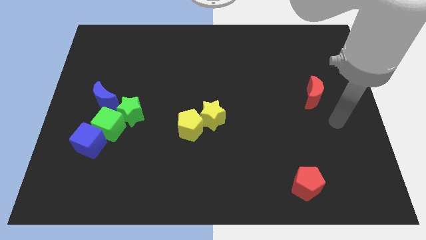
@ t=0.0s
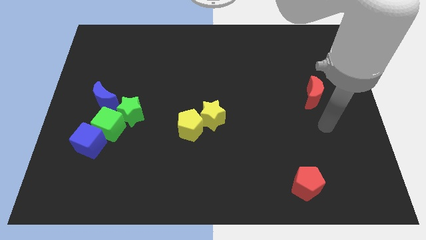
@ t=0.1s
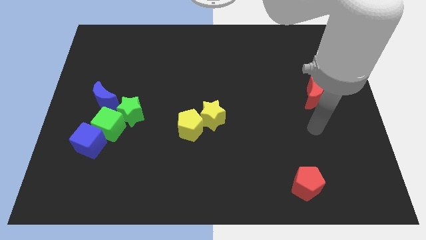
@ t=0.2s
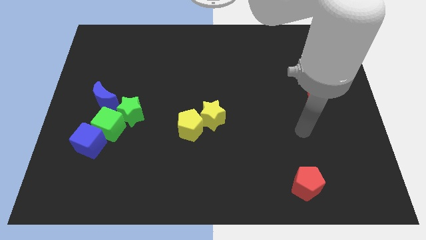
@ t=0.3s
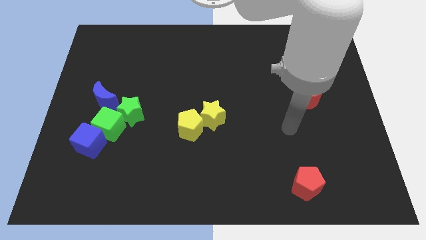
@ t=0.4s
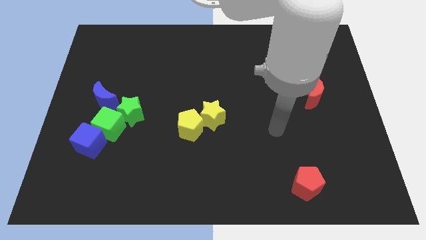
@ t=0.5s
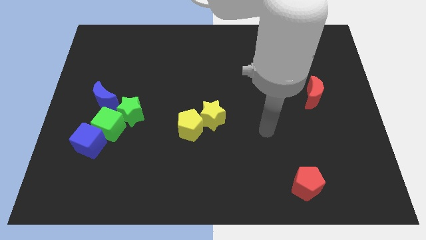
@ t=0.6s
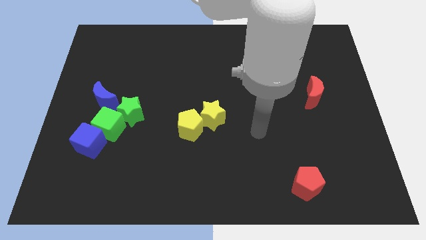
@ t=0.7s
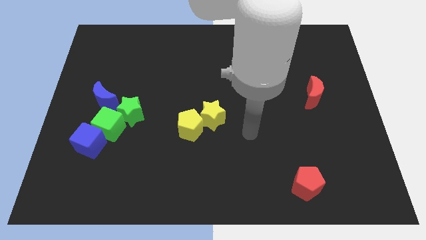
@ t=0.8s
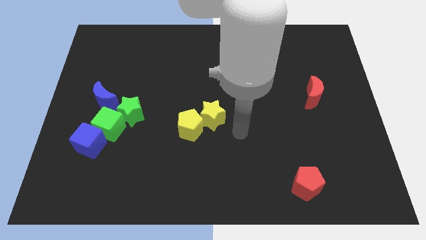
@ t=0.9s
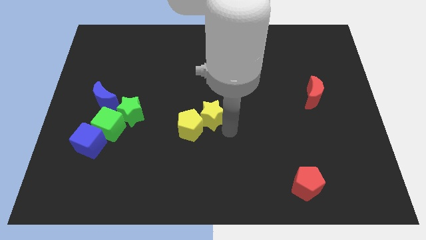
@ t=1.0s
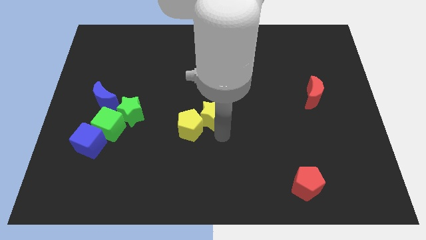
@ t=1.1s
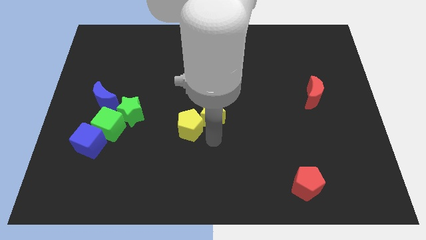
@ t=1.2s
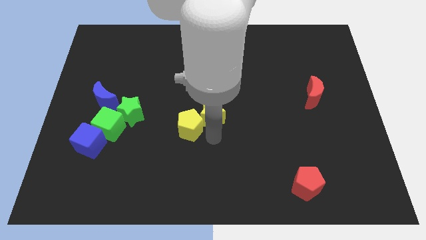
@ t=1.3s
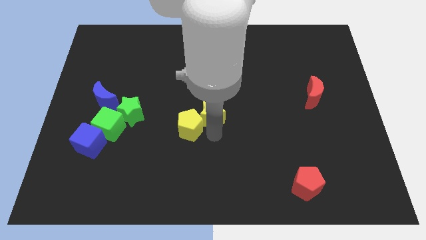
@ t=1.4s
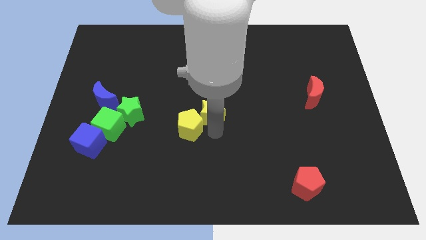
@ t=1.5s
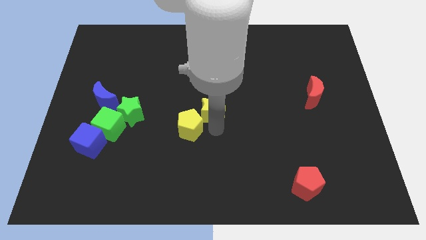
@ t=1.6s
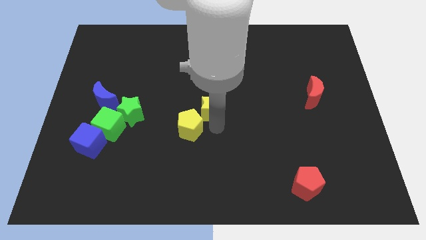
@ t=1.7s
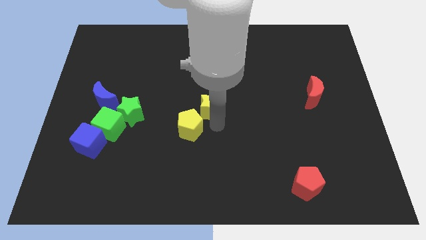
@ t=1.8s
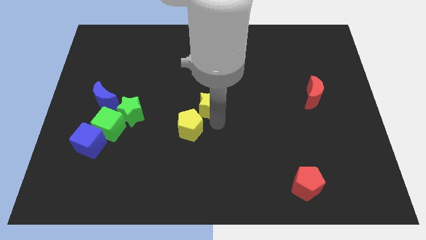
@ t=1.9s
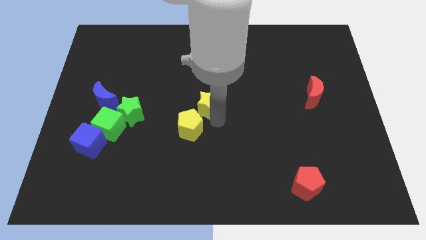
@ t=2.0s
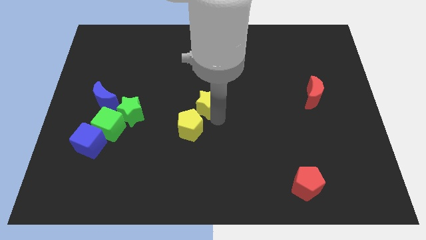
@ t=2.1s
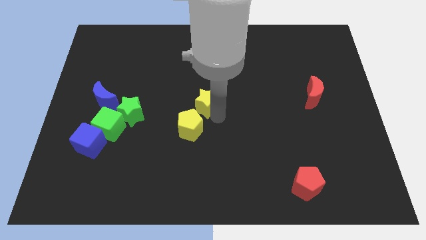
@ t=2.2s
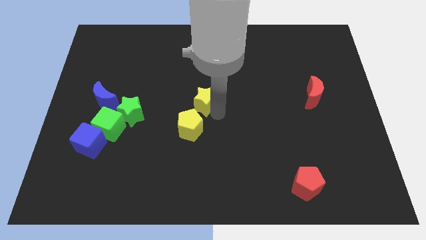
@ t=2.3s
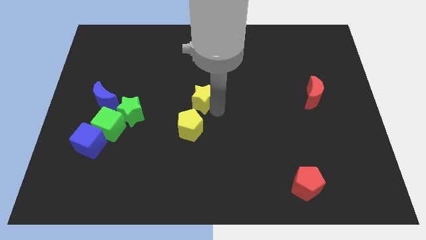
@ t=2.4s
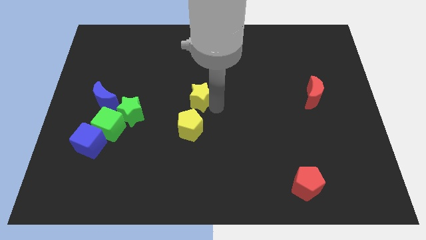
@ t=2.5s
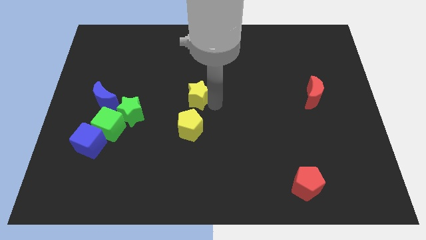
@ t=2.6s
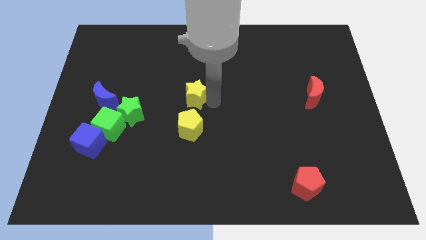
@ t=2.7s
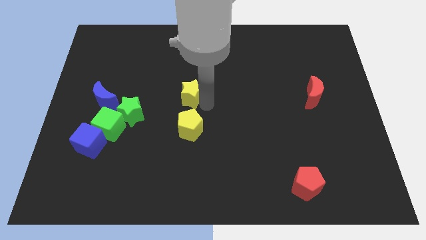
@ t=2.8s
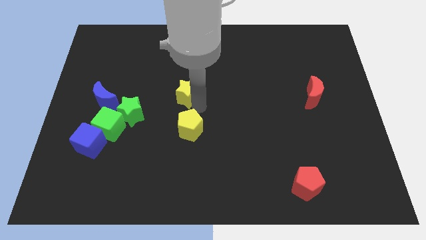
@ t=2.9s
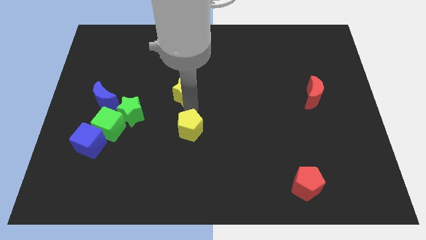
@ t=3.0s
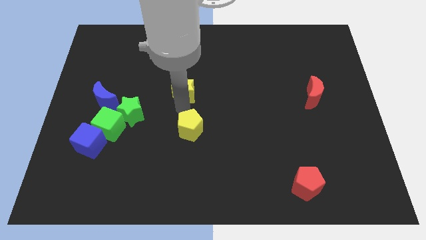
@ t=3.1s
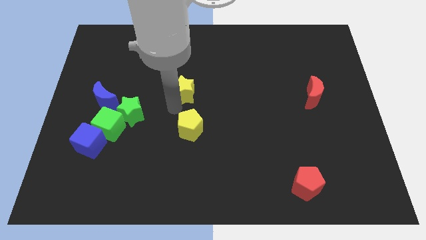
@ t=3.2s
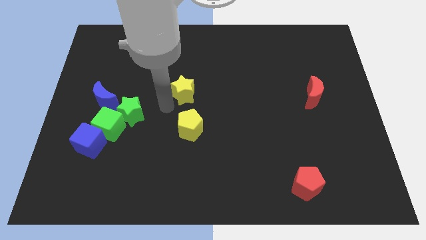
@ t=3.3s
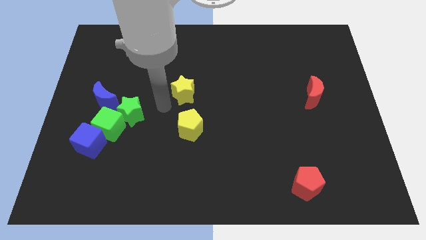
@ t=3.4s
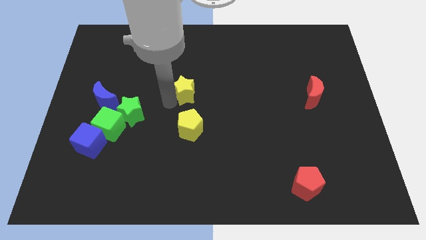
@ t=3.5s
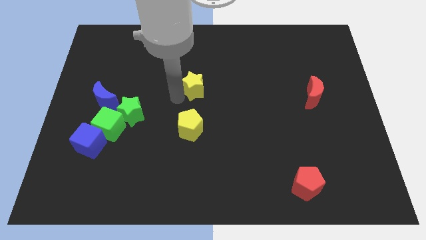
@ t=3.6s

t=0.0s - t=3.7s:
push the yellow star a little upwards

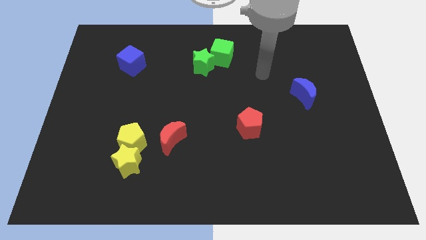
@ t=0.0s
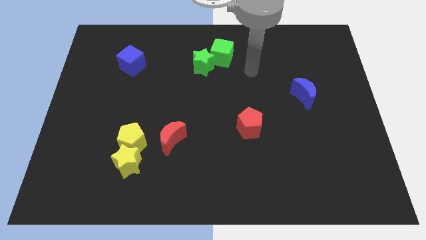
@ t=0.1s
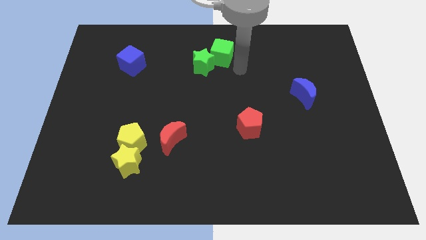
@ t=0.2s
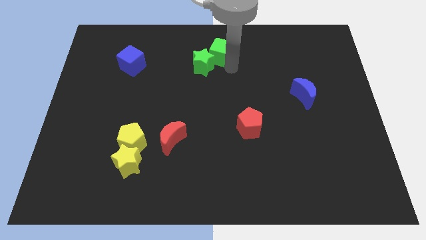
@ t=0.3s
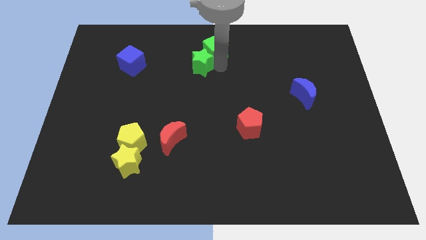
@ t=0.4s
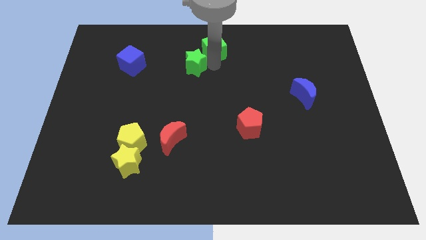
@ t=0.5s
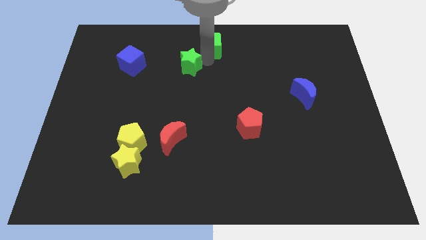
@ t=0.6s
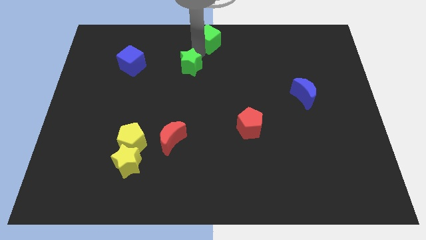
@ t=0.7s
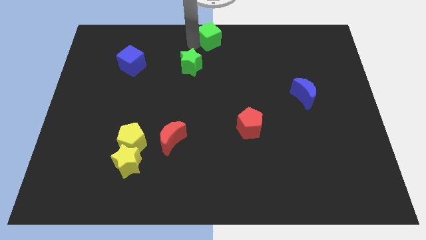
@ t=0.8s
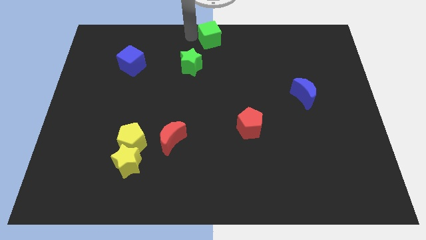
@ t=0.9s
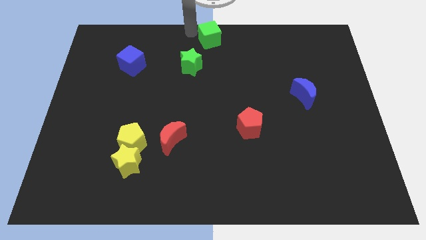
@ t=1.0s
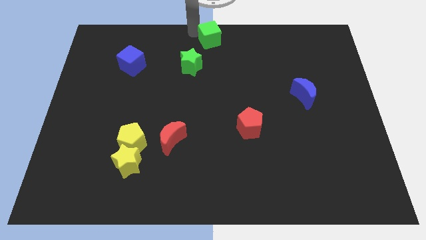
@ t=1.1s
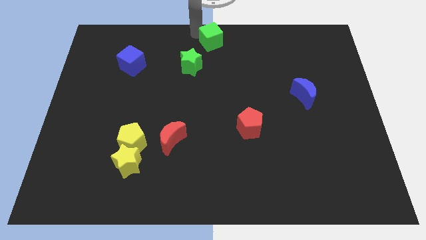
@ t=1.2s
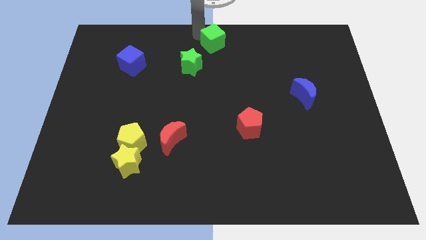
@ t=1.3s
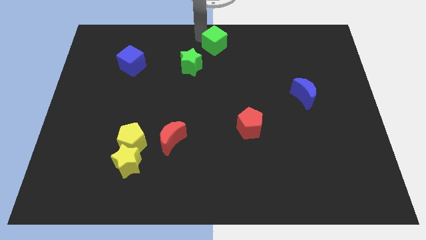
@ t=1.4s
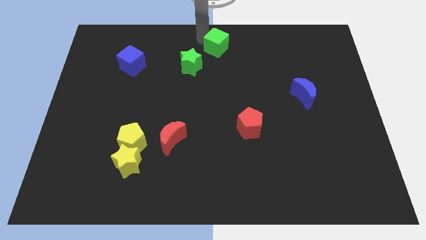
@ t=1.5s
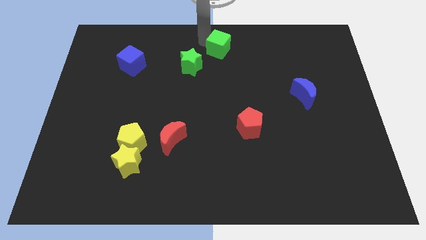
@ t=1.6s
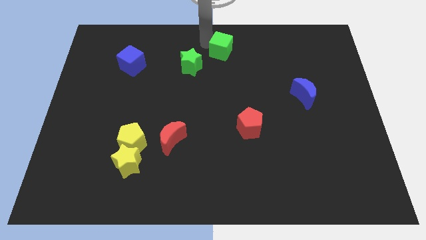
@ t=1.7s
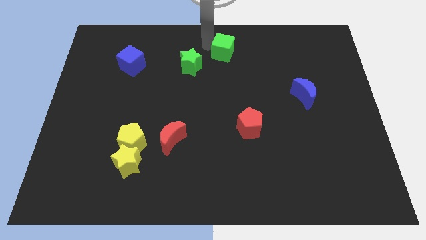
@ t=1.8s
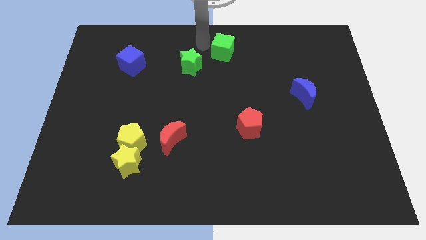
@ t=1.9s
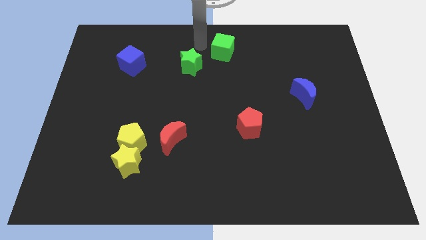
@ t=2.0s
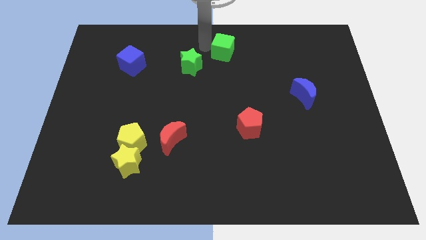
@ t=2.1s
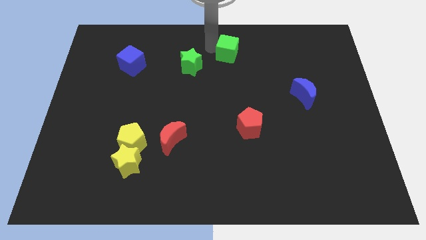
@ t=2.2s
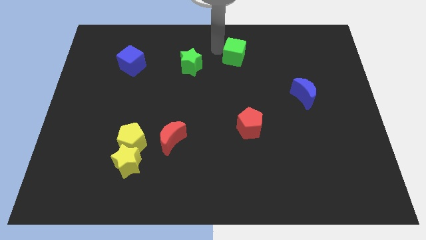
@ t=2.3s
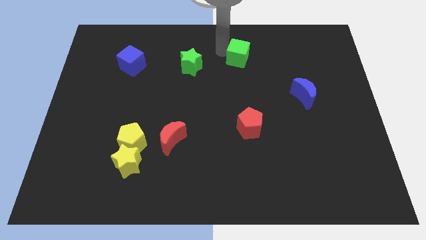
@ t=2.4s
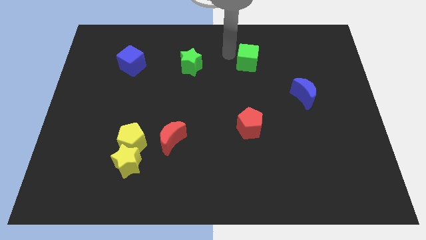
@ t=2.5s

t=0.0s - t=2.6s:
slide the green cube a little to the right

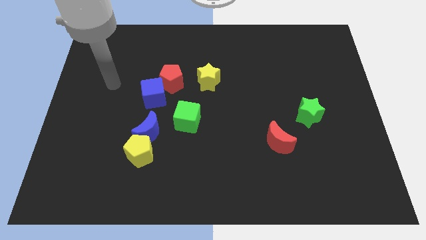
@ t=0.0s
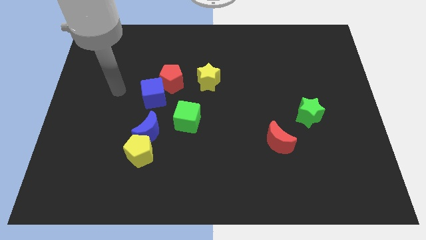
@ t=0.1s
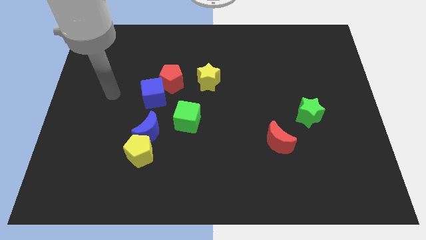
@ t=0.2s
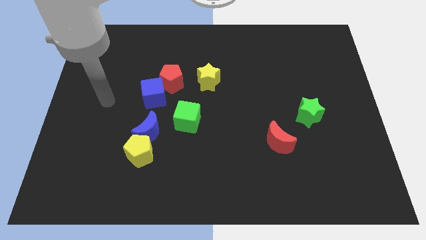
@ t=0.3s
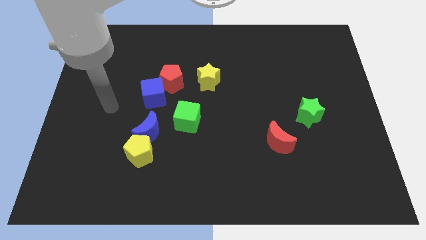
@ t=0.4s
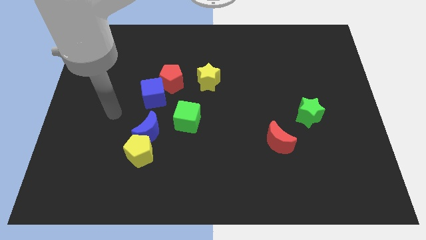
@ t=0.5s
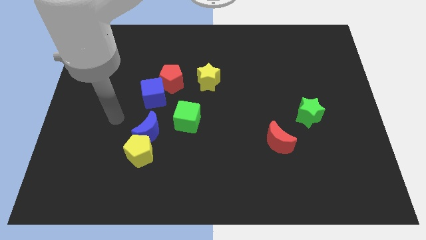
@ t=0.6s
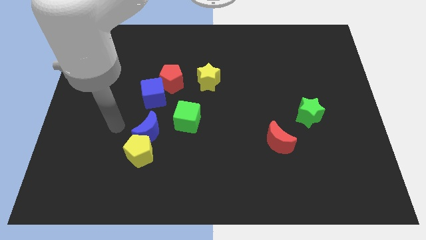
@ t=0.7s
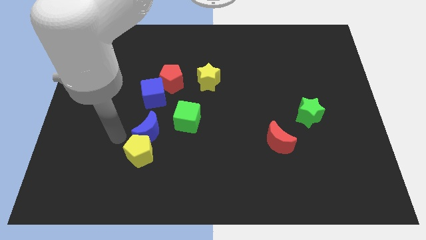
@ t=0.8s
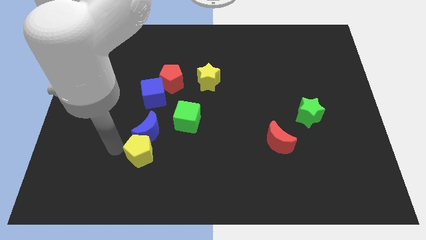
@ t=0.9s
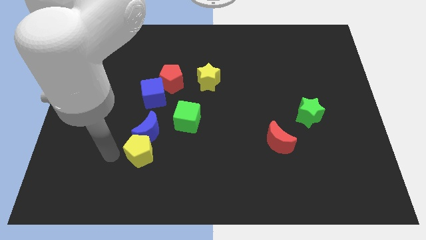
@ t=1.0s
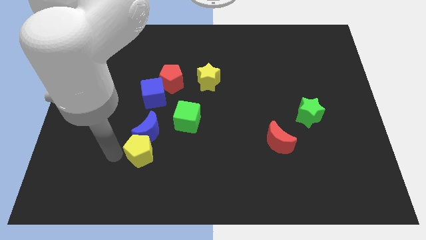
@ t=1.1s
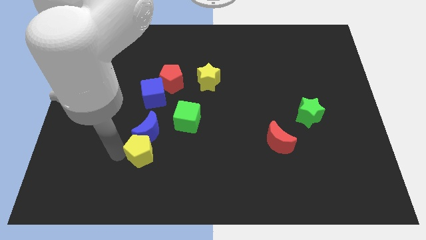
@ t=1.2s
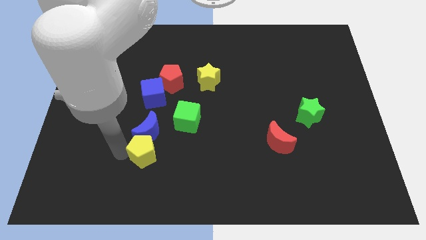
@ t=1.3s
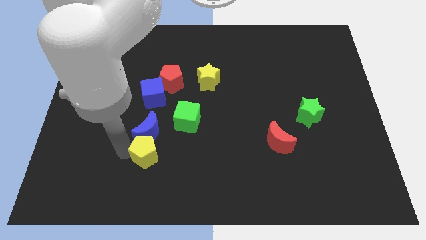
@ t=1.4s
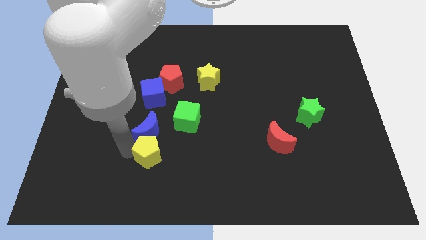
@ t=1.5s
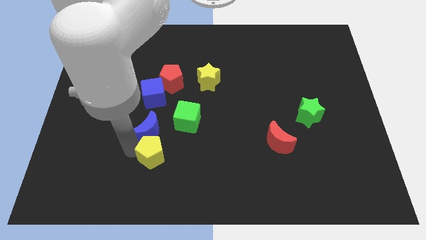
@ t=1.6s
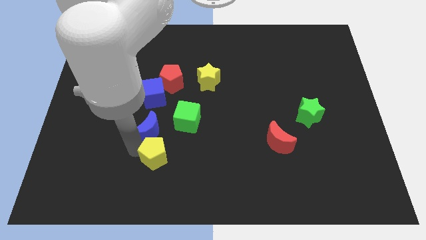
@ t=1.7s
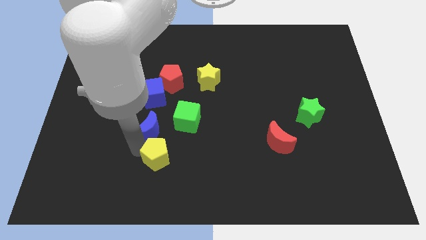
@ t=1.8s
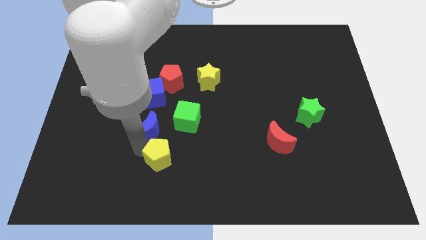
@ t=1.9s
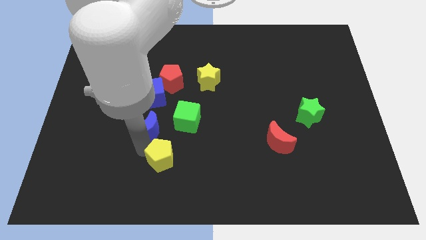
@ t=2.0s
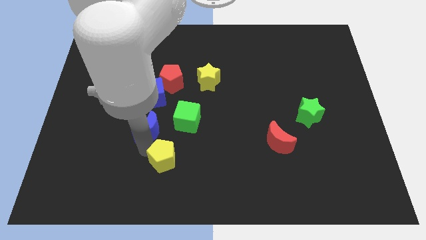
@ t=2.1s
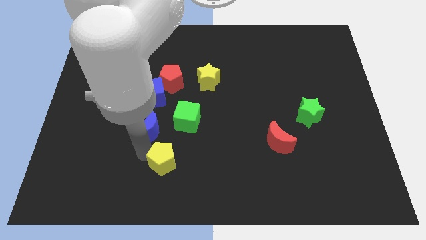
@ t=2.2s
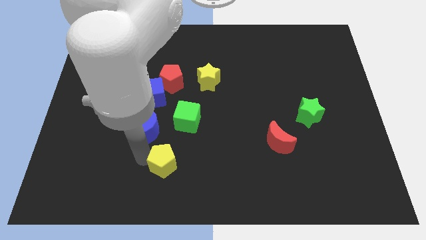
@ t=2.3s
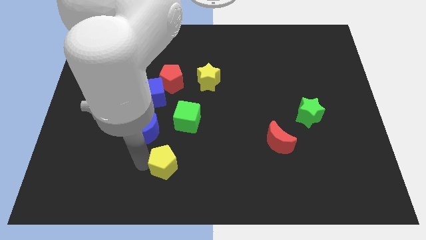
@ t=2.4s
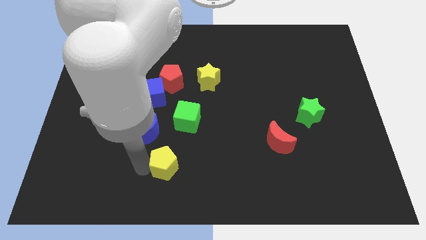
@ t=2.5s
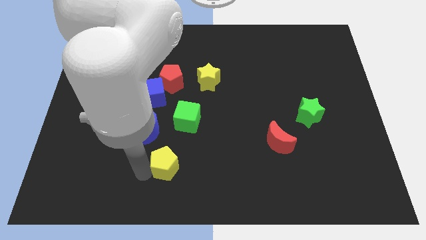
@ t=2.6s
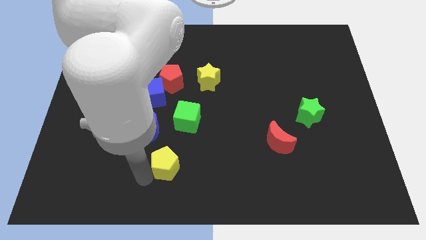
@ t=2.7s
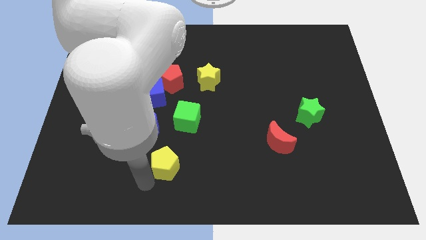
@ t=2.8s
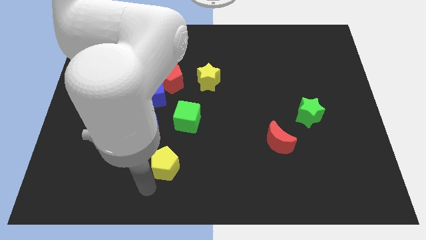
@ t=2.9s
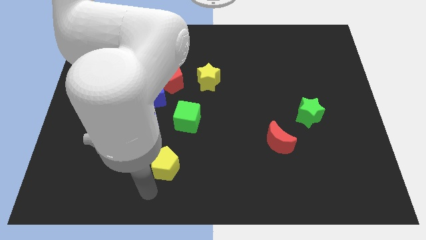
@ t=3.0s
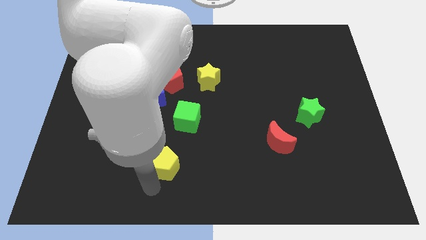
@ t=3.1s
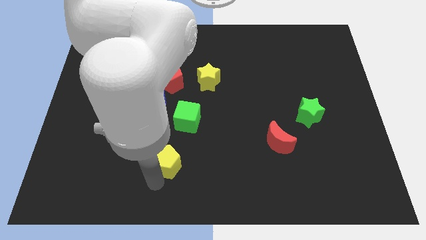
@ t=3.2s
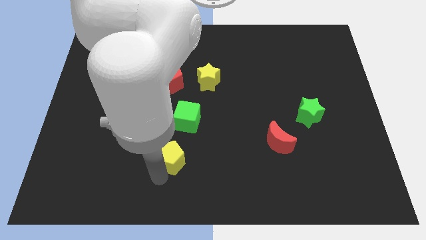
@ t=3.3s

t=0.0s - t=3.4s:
slide the yellow pentagon somewhat right
